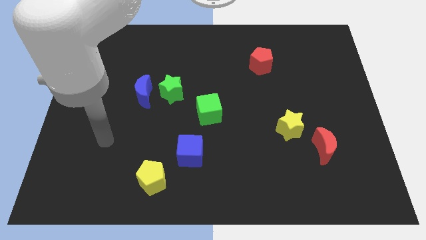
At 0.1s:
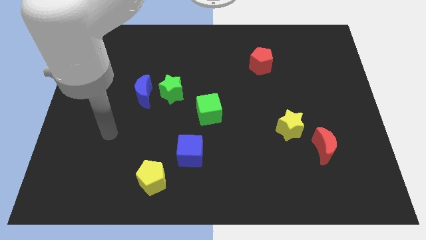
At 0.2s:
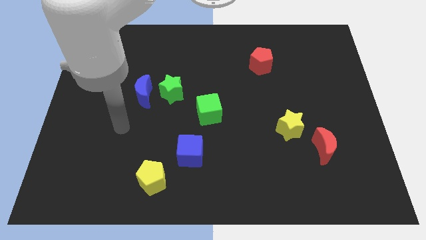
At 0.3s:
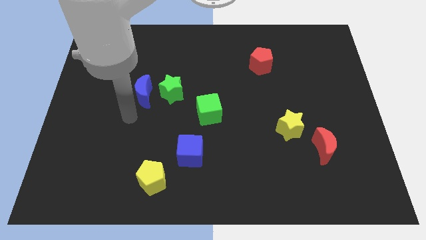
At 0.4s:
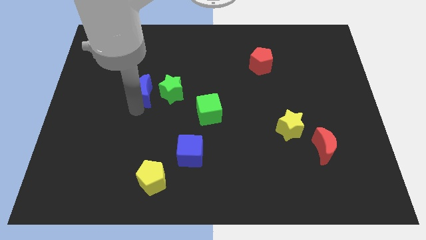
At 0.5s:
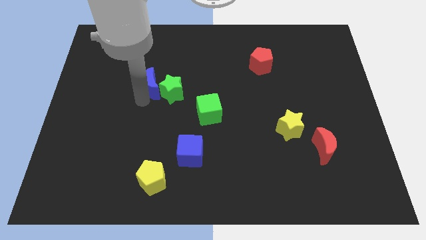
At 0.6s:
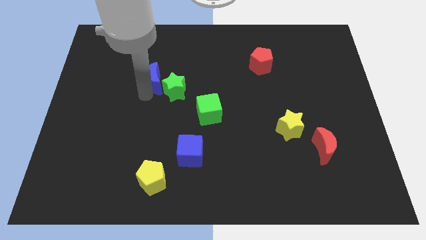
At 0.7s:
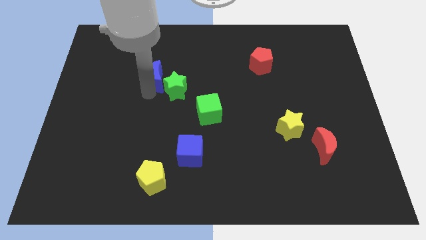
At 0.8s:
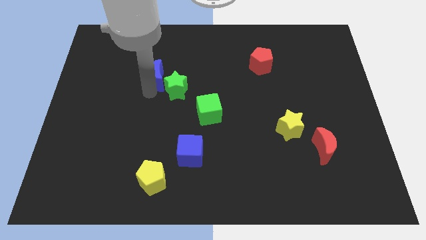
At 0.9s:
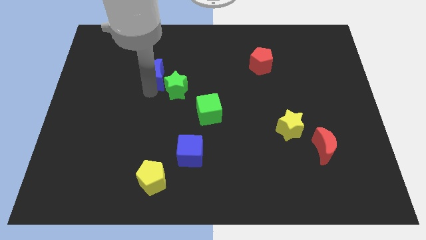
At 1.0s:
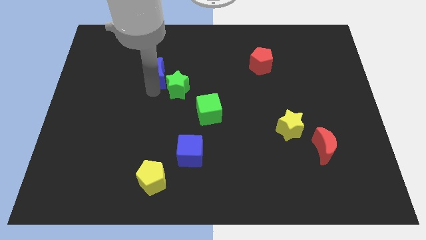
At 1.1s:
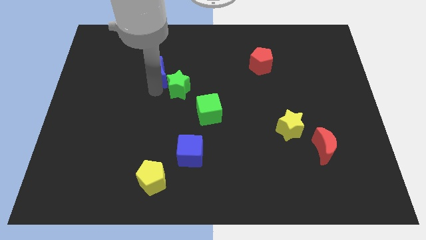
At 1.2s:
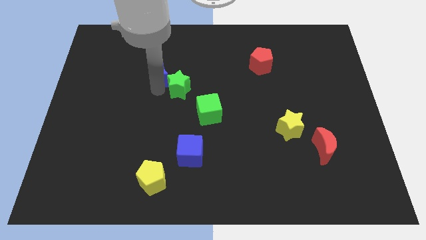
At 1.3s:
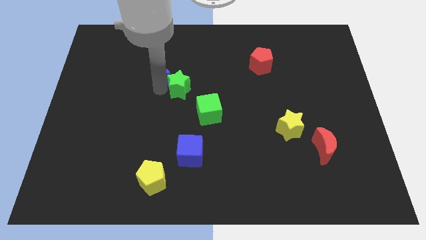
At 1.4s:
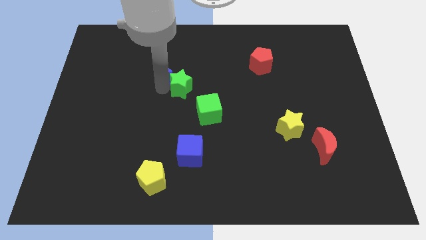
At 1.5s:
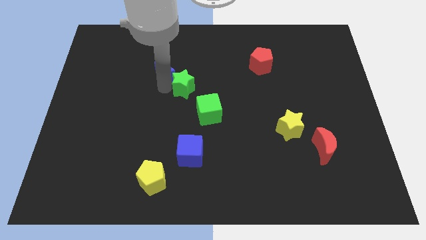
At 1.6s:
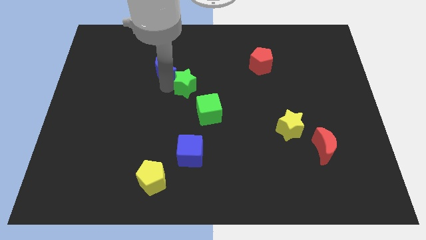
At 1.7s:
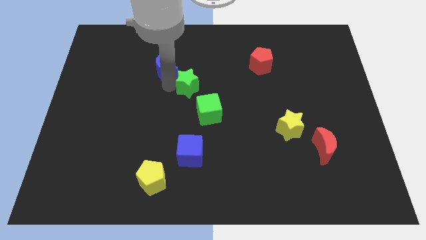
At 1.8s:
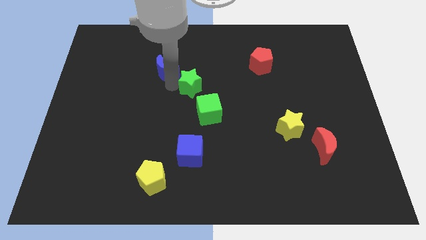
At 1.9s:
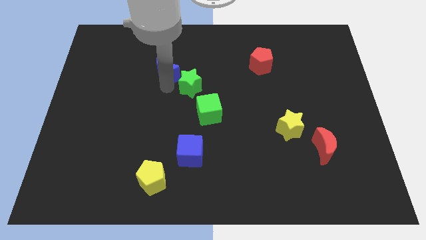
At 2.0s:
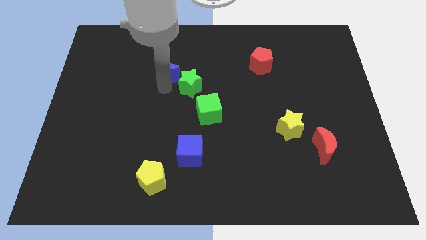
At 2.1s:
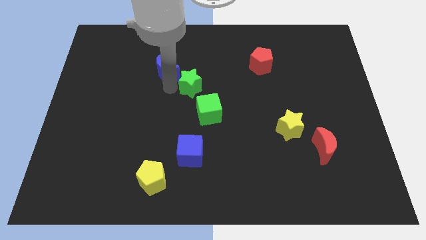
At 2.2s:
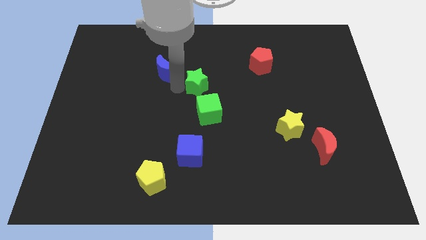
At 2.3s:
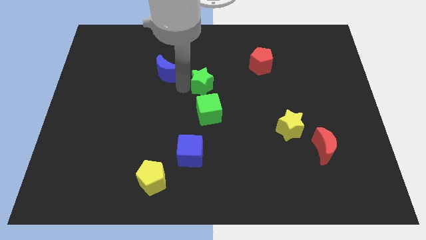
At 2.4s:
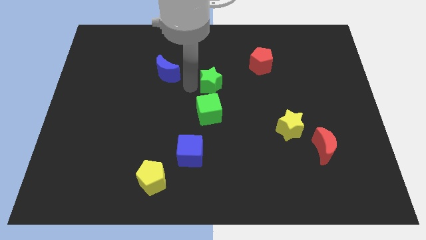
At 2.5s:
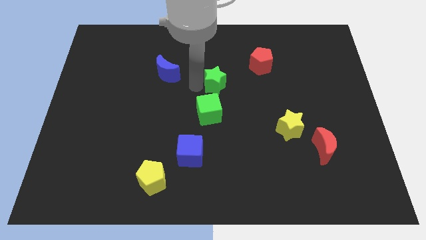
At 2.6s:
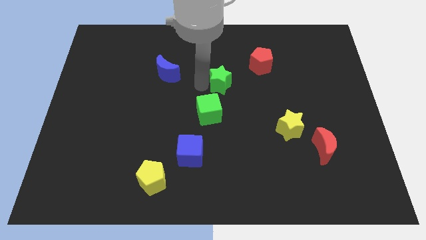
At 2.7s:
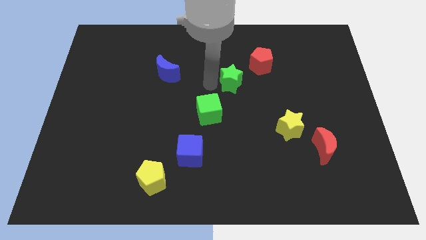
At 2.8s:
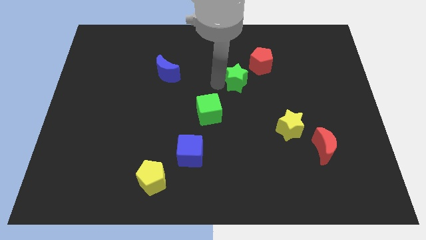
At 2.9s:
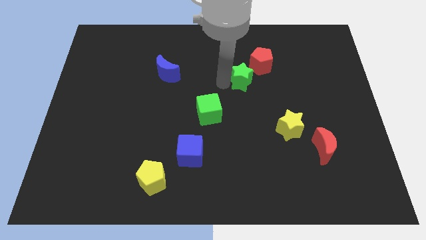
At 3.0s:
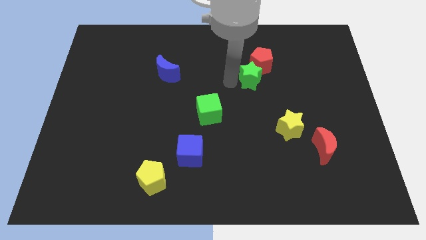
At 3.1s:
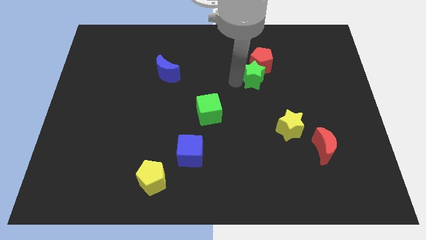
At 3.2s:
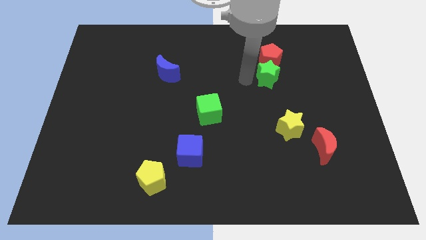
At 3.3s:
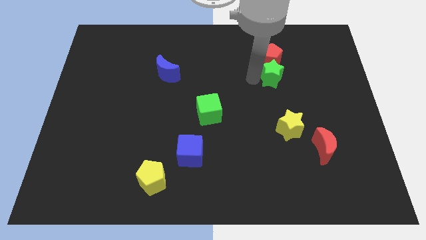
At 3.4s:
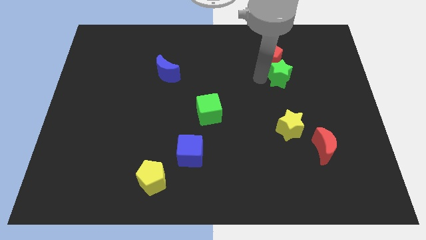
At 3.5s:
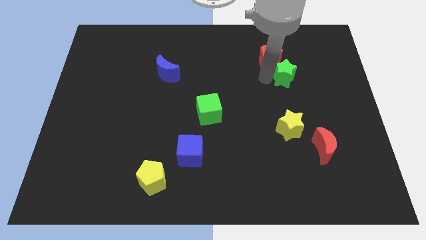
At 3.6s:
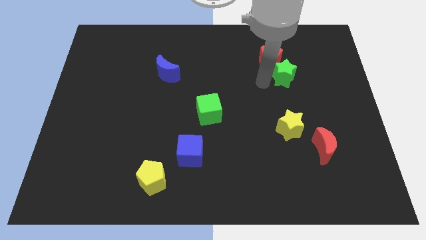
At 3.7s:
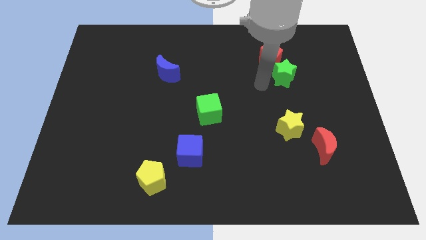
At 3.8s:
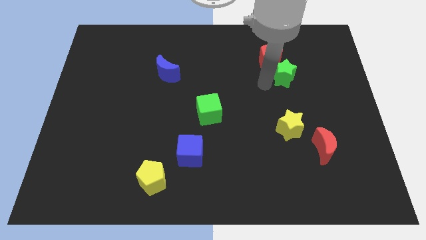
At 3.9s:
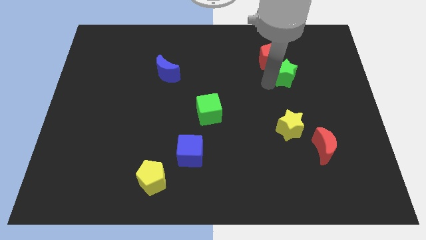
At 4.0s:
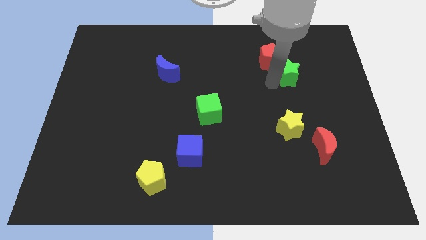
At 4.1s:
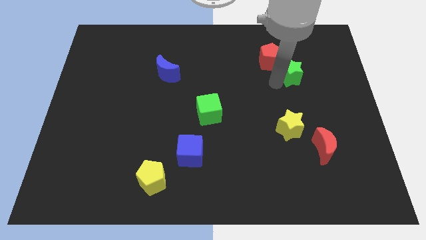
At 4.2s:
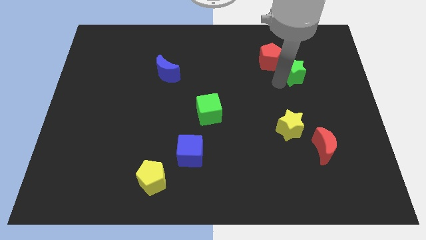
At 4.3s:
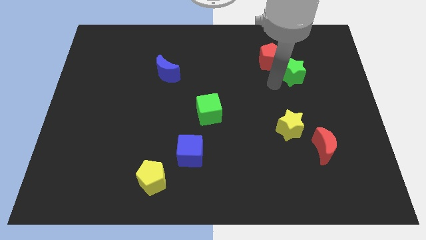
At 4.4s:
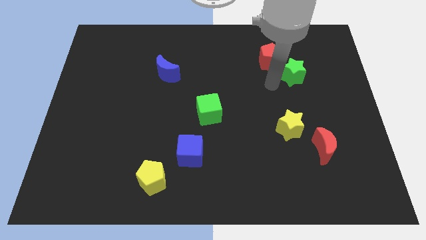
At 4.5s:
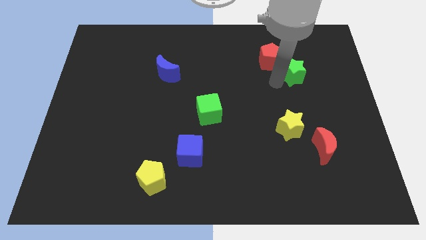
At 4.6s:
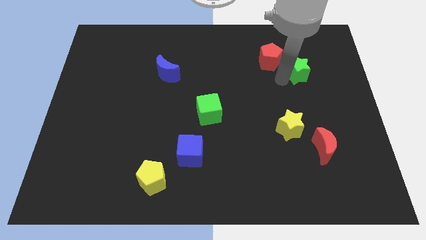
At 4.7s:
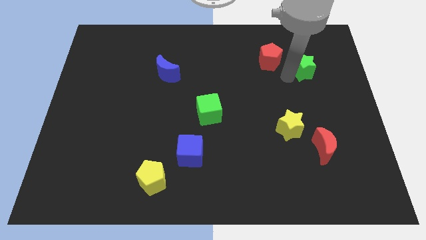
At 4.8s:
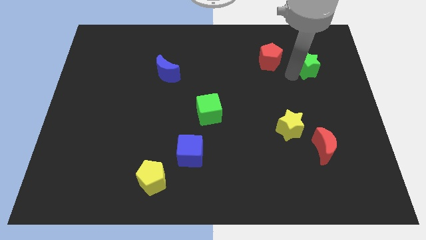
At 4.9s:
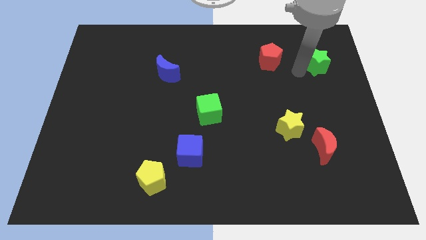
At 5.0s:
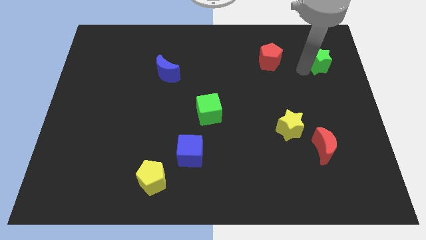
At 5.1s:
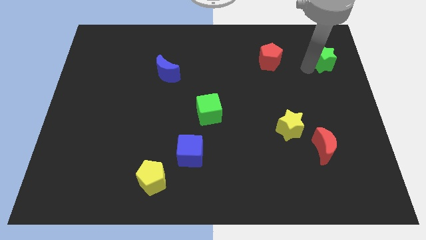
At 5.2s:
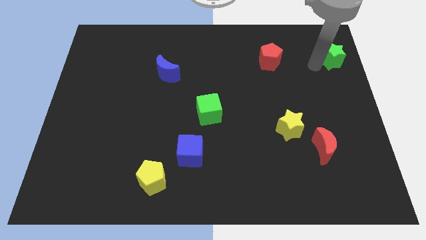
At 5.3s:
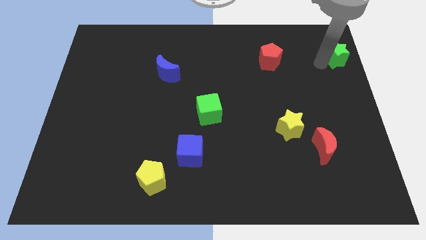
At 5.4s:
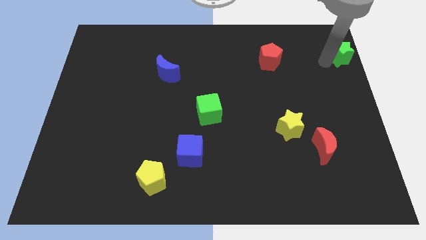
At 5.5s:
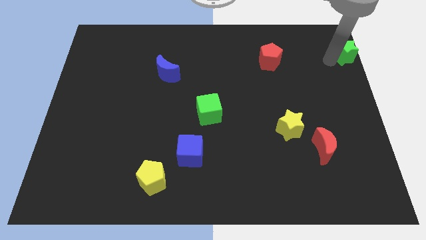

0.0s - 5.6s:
move the green star to the top right

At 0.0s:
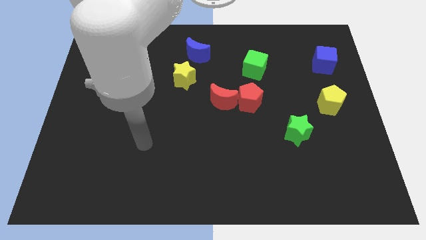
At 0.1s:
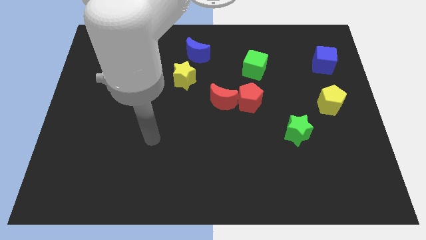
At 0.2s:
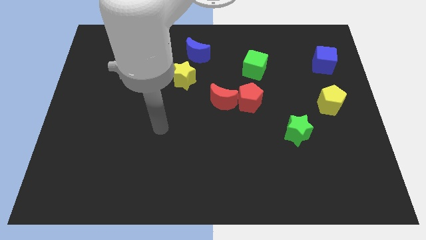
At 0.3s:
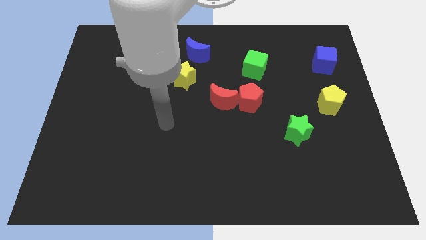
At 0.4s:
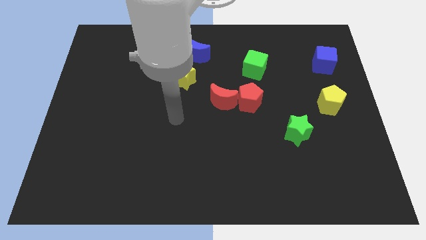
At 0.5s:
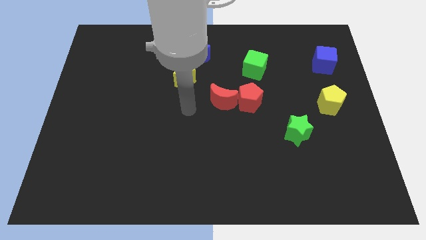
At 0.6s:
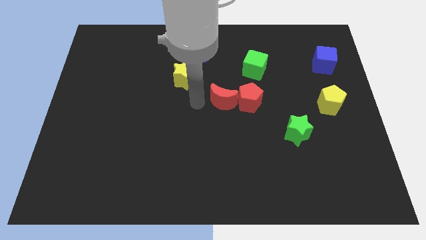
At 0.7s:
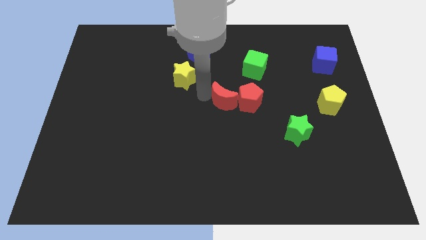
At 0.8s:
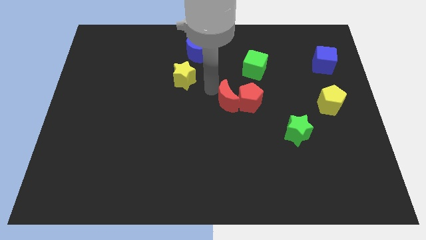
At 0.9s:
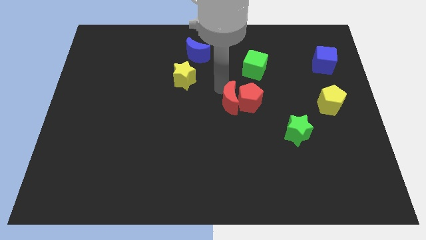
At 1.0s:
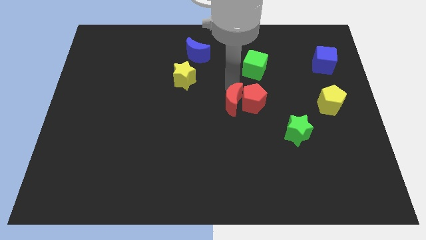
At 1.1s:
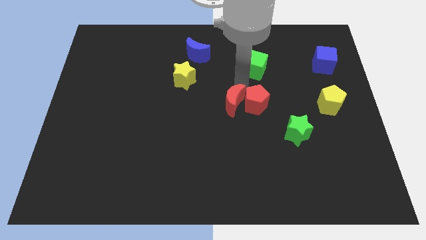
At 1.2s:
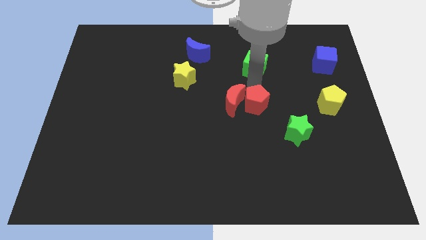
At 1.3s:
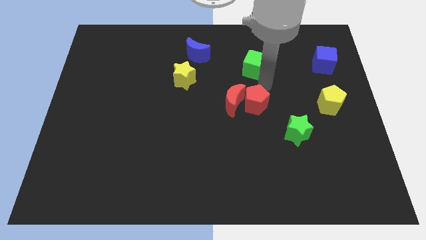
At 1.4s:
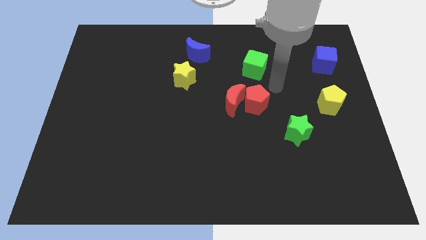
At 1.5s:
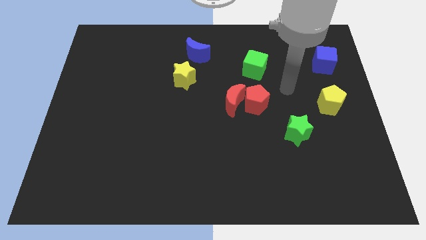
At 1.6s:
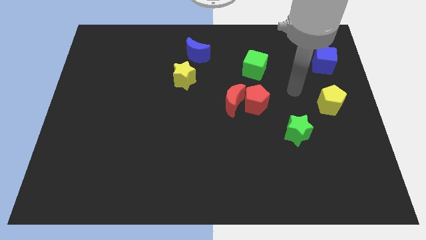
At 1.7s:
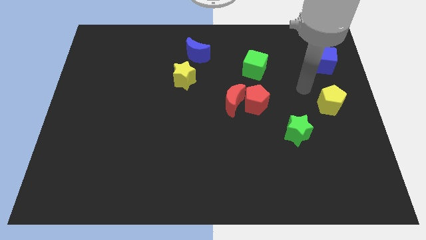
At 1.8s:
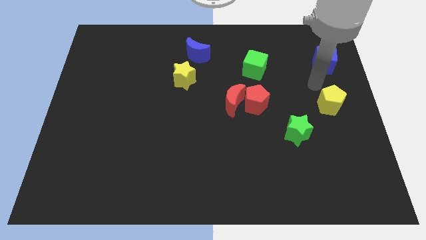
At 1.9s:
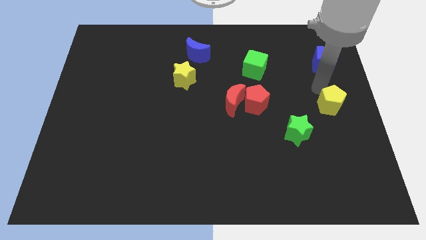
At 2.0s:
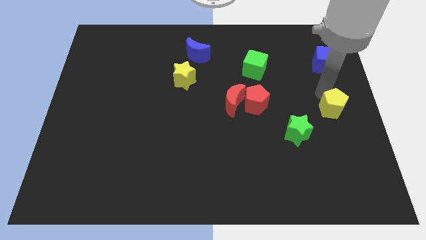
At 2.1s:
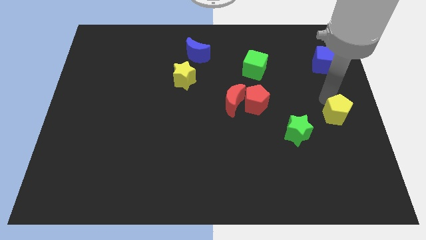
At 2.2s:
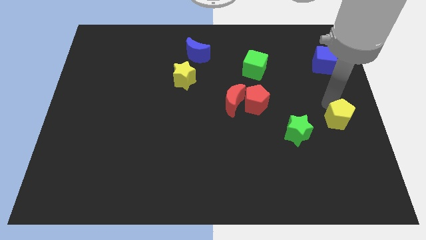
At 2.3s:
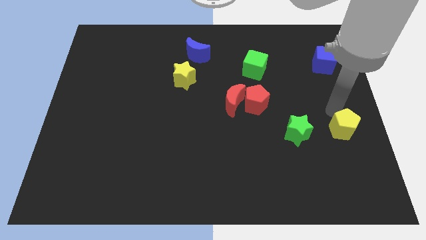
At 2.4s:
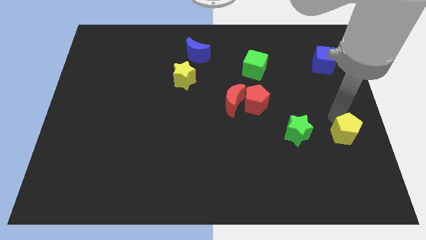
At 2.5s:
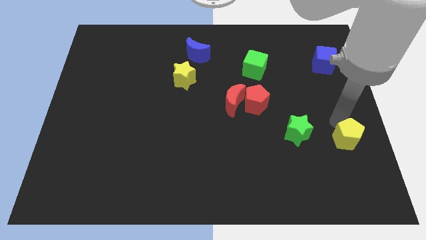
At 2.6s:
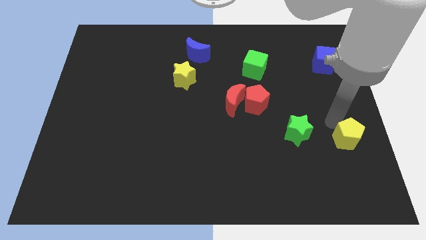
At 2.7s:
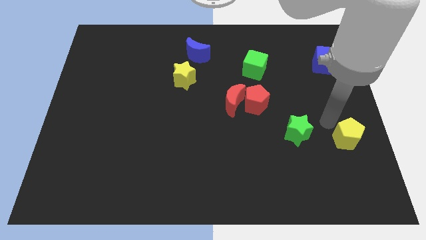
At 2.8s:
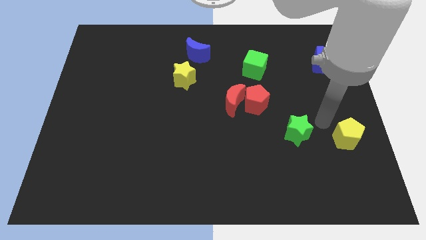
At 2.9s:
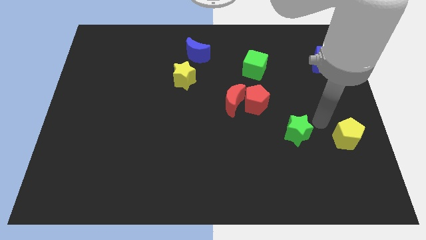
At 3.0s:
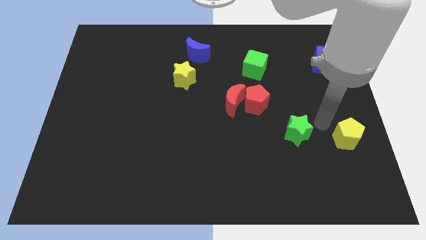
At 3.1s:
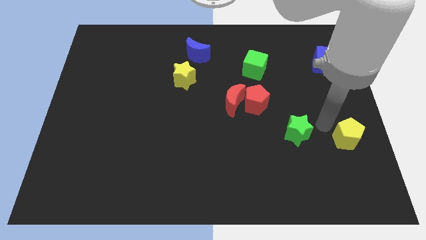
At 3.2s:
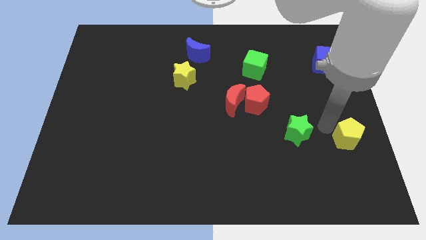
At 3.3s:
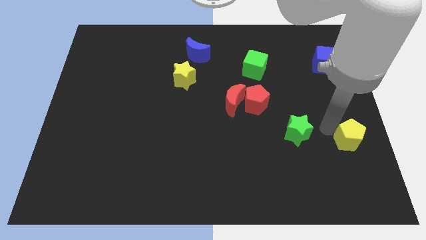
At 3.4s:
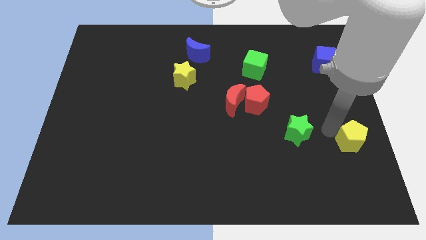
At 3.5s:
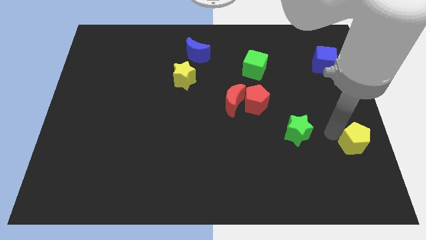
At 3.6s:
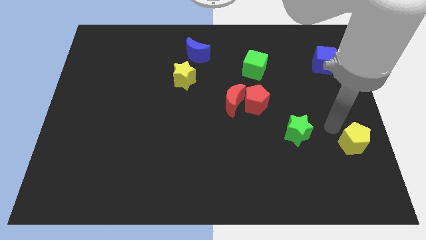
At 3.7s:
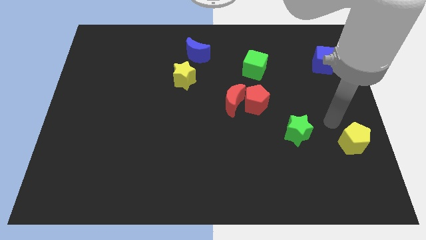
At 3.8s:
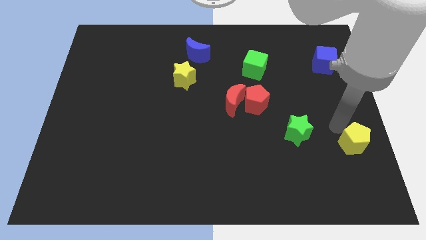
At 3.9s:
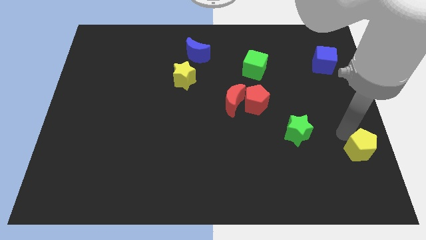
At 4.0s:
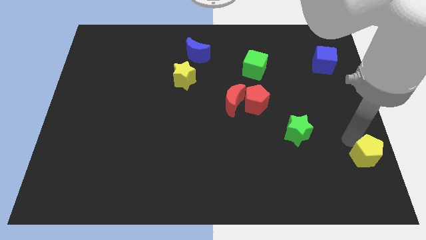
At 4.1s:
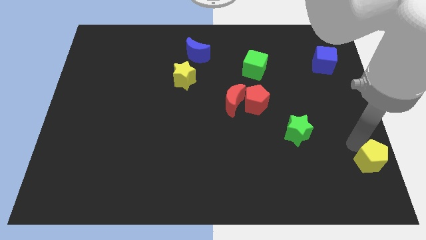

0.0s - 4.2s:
slide the yellow pentagon to the bottom right
